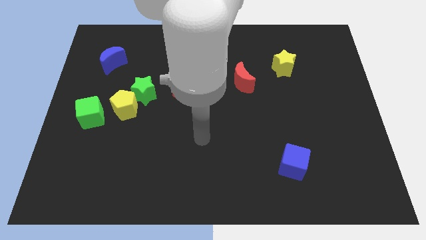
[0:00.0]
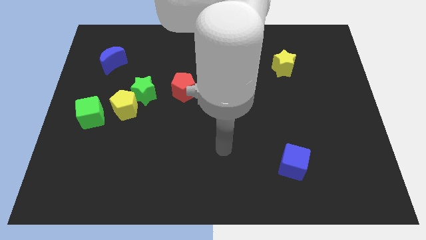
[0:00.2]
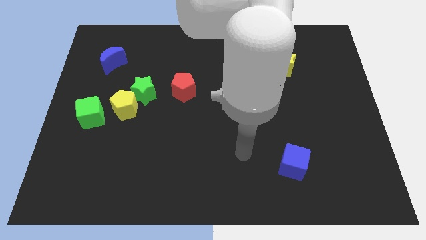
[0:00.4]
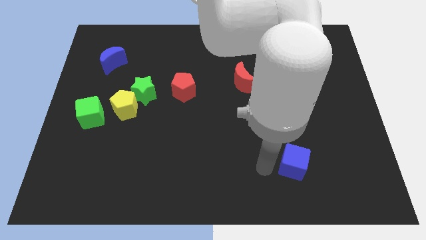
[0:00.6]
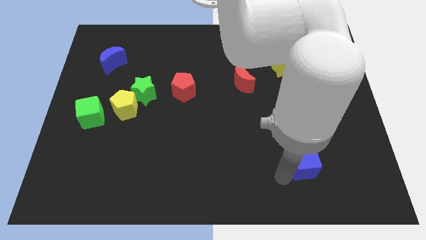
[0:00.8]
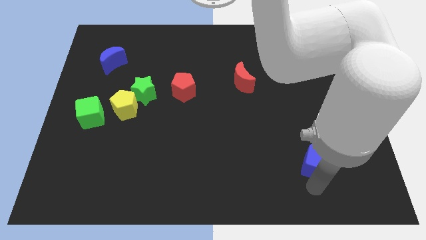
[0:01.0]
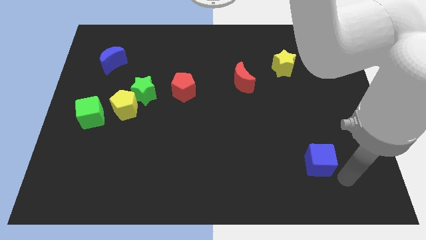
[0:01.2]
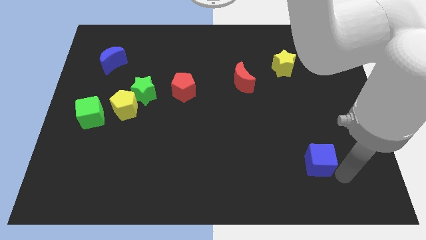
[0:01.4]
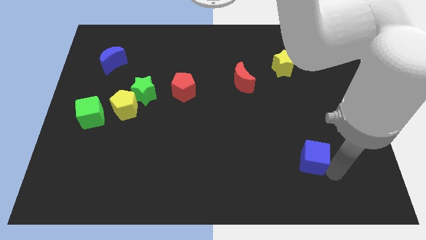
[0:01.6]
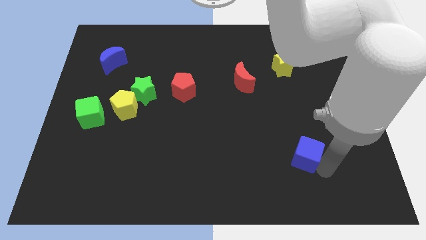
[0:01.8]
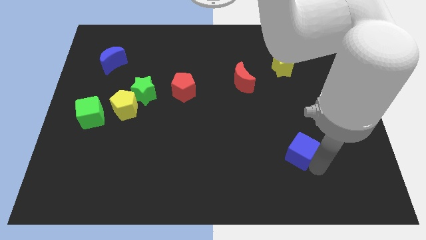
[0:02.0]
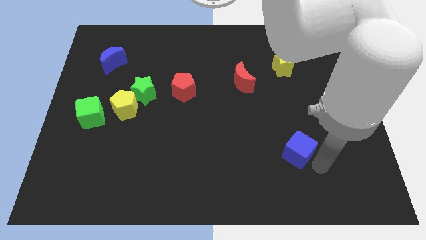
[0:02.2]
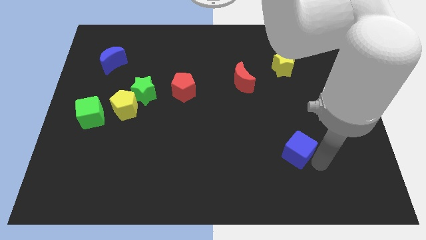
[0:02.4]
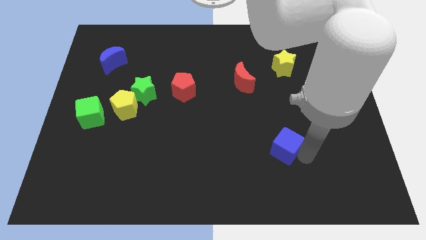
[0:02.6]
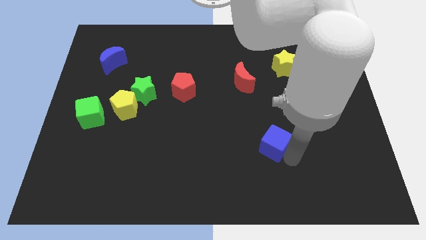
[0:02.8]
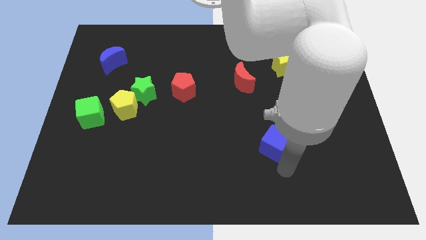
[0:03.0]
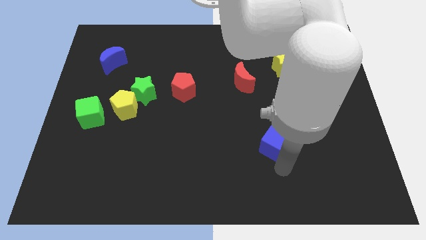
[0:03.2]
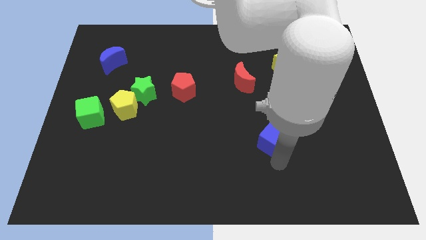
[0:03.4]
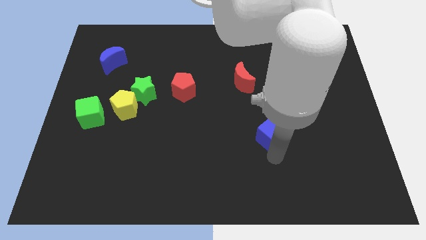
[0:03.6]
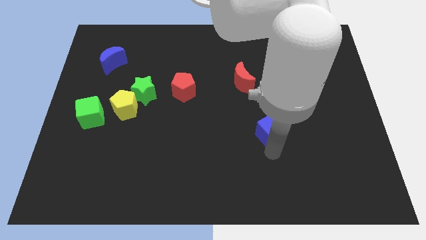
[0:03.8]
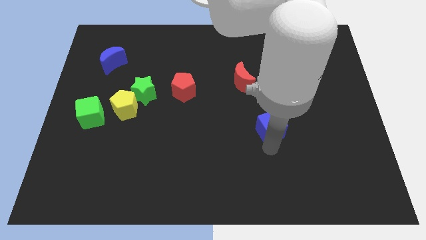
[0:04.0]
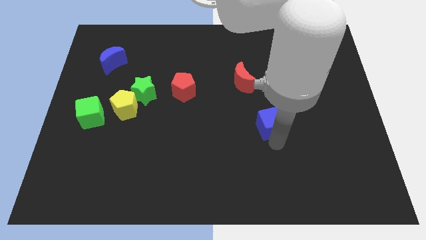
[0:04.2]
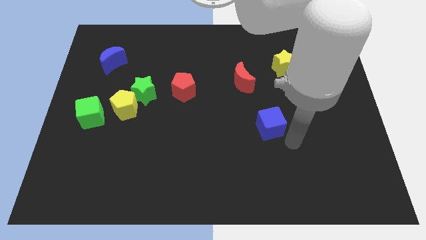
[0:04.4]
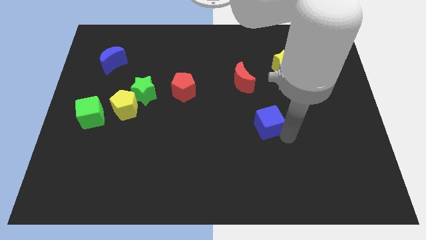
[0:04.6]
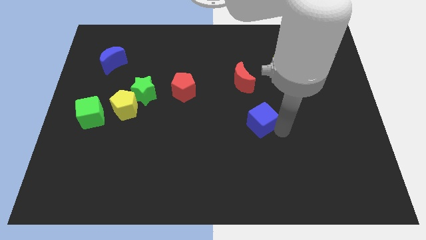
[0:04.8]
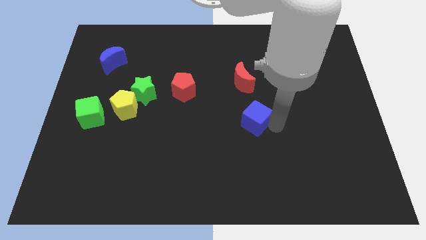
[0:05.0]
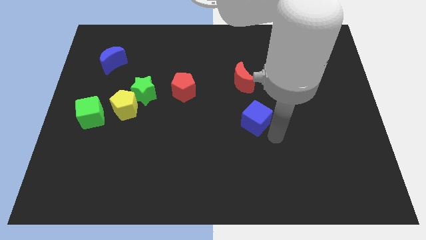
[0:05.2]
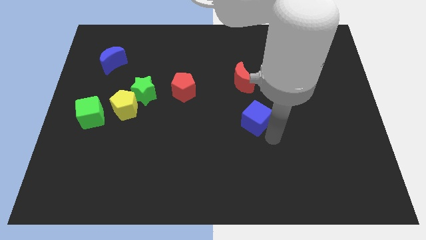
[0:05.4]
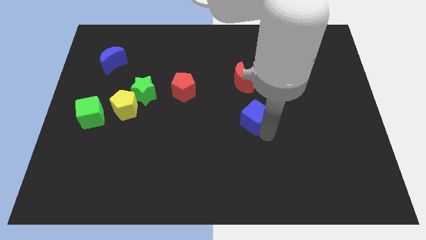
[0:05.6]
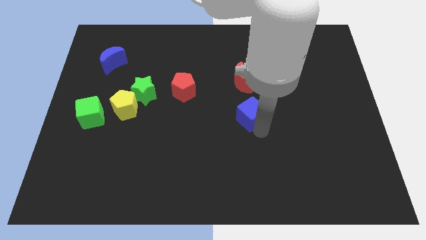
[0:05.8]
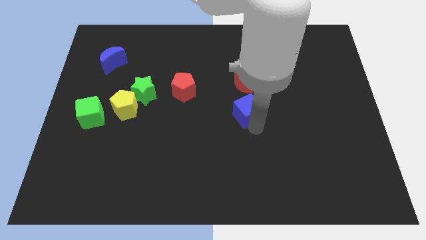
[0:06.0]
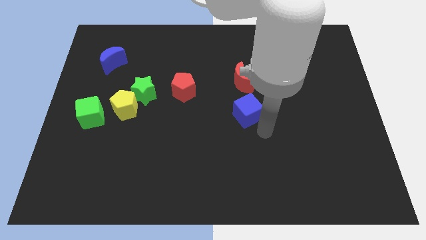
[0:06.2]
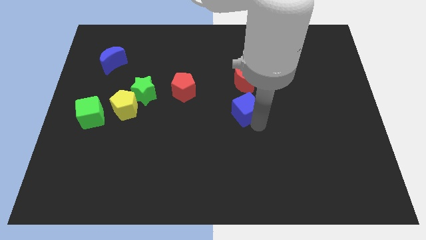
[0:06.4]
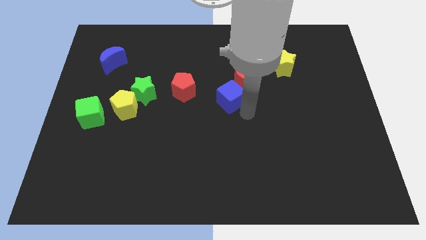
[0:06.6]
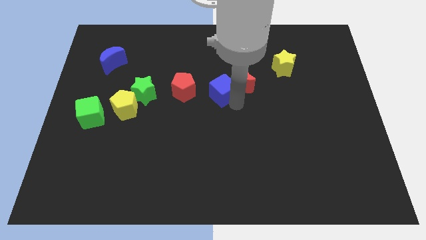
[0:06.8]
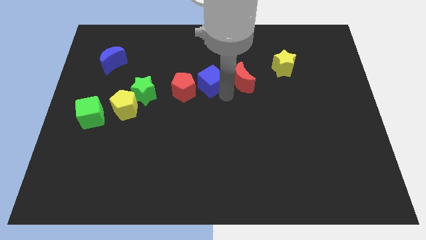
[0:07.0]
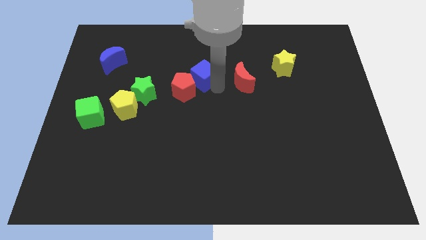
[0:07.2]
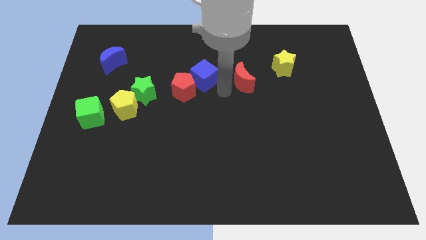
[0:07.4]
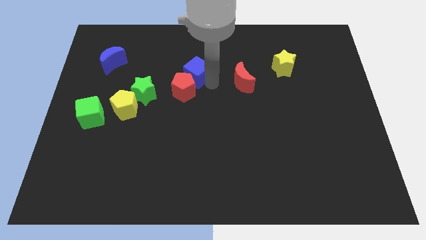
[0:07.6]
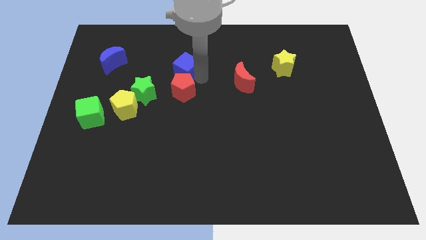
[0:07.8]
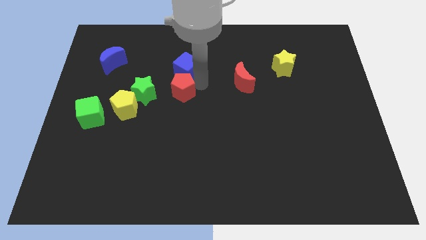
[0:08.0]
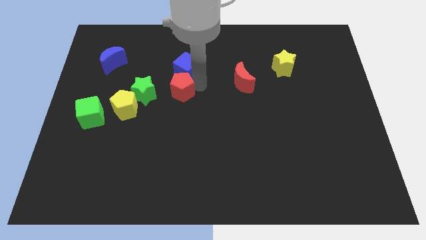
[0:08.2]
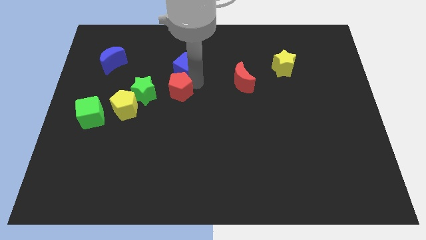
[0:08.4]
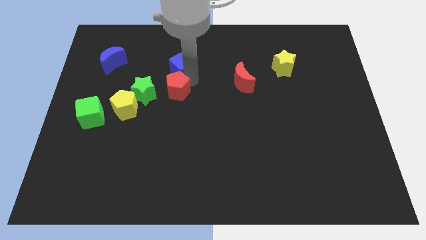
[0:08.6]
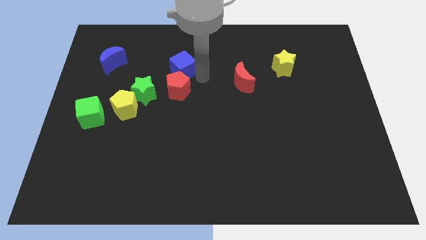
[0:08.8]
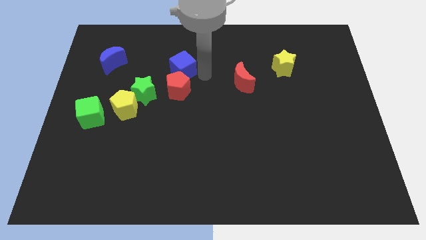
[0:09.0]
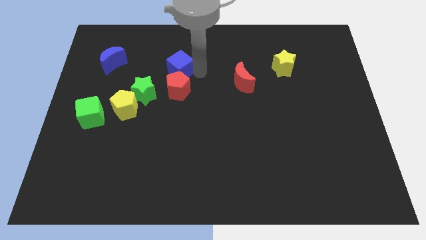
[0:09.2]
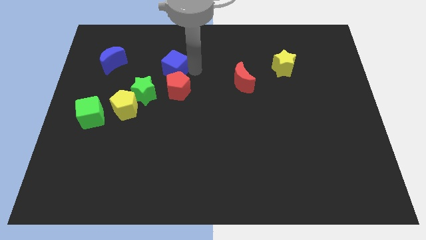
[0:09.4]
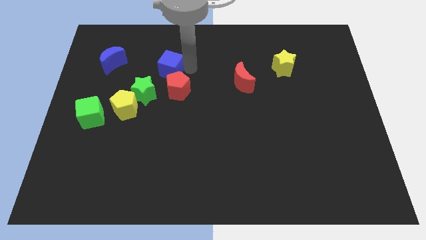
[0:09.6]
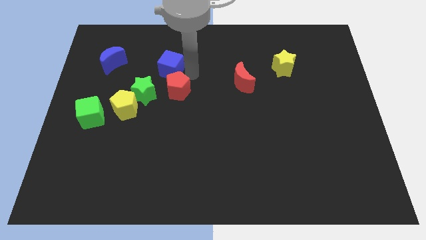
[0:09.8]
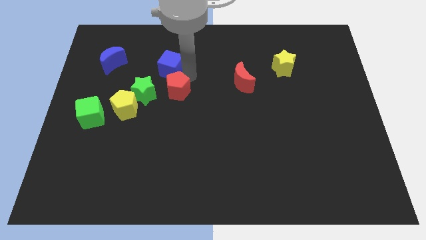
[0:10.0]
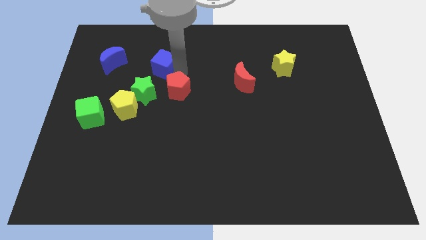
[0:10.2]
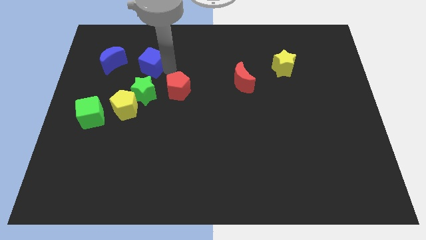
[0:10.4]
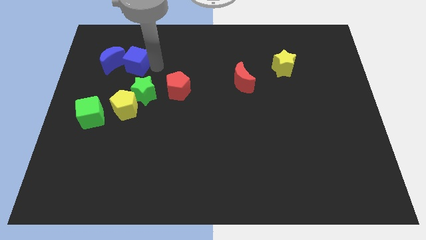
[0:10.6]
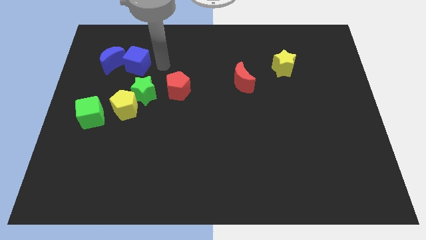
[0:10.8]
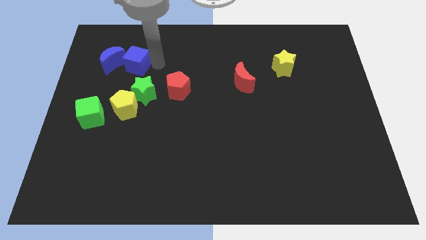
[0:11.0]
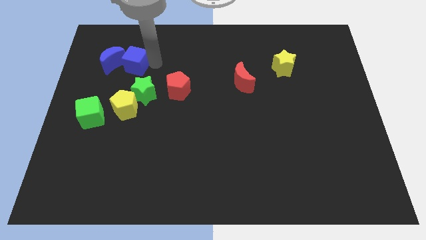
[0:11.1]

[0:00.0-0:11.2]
put the blue cube towards the blue moon

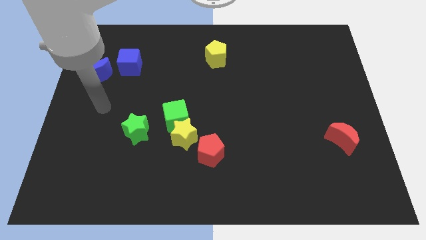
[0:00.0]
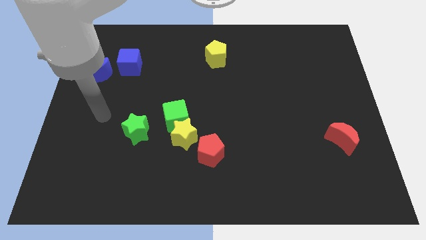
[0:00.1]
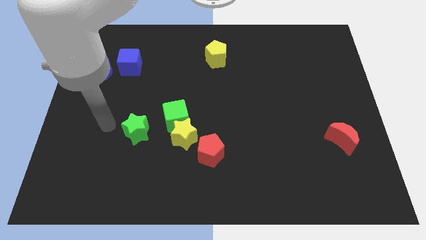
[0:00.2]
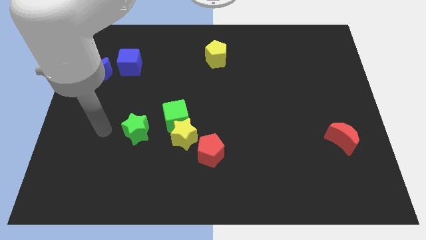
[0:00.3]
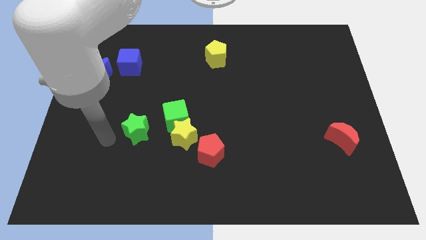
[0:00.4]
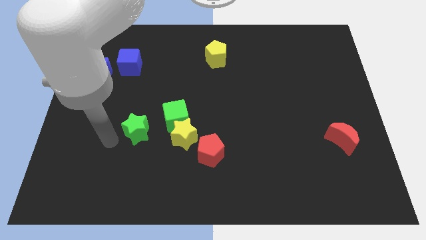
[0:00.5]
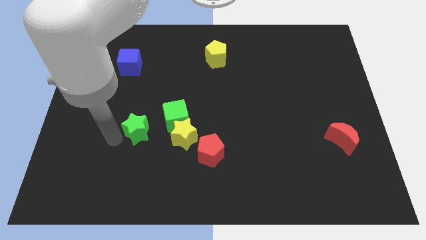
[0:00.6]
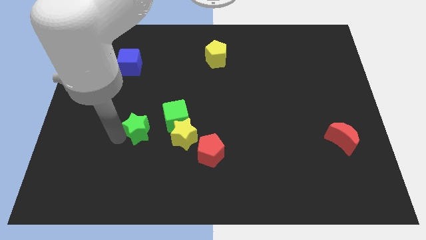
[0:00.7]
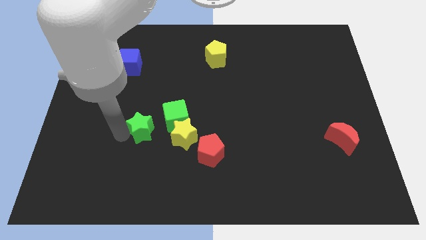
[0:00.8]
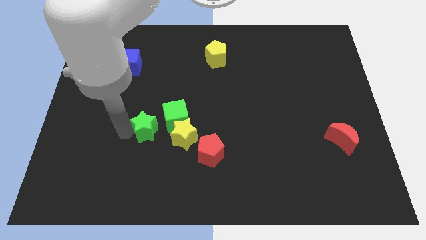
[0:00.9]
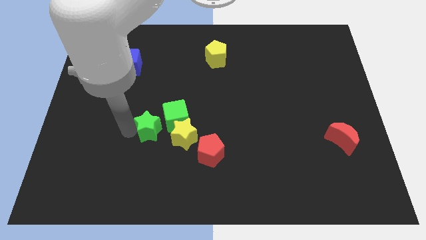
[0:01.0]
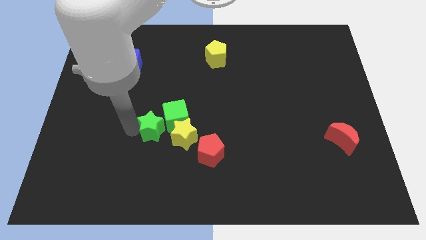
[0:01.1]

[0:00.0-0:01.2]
put the green star next to the green cube
